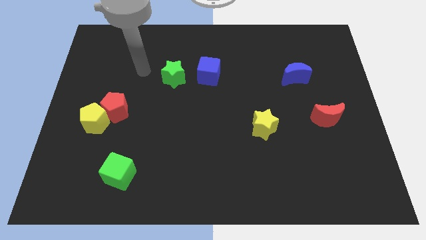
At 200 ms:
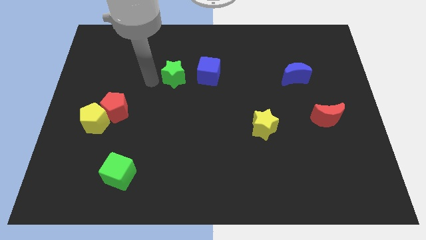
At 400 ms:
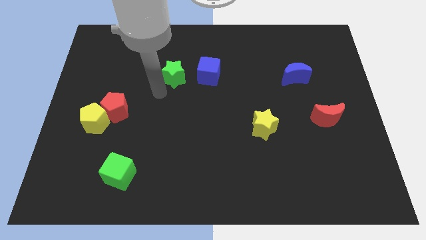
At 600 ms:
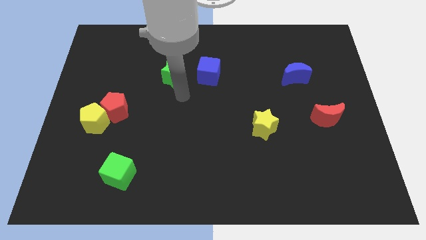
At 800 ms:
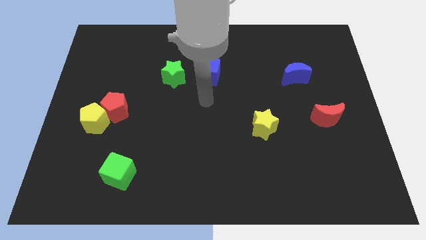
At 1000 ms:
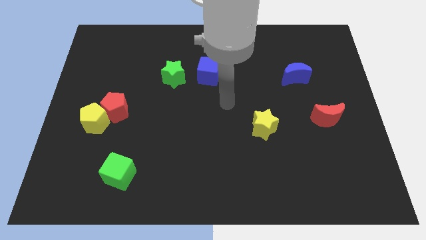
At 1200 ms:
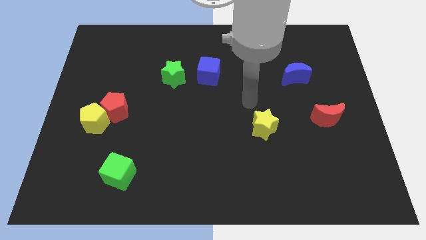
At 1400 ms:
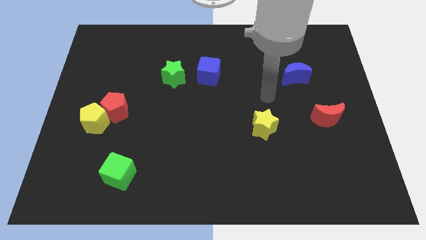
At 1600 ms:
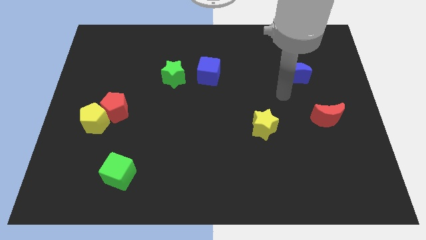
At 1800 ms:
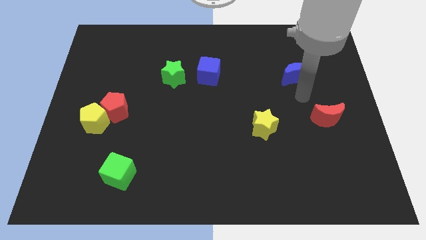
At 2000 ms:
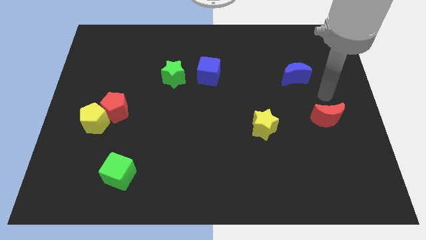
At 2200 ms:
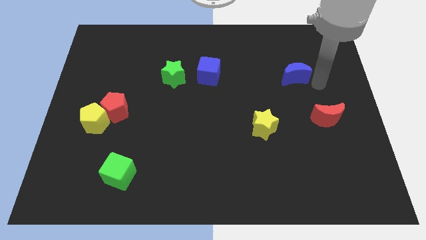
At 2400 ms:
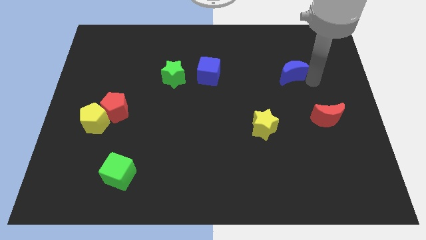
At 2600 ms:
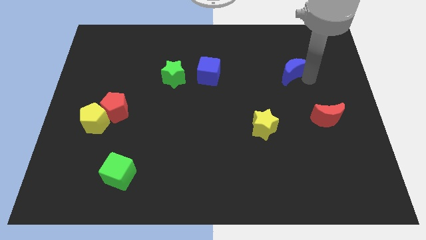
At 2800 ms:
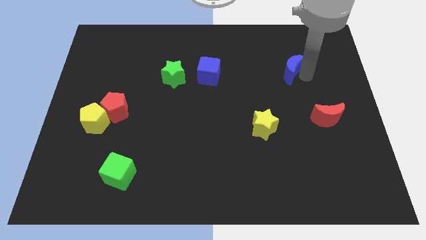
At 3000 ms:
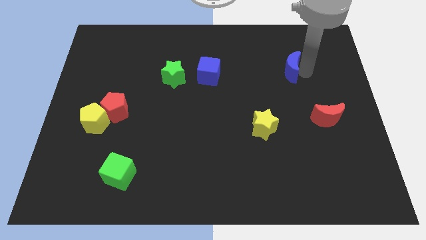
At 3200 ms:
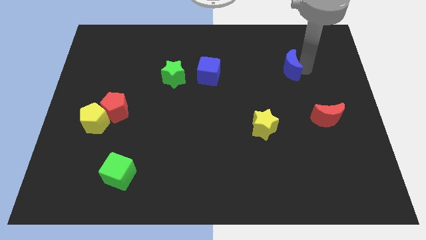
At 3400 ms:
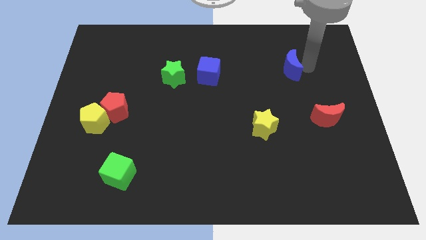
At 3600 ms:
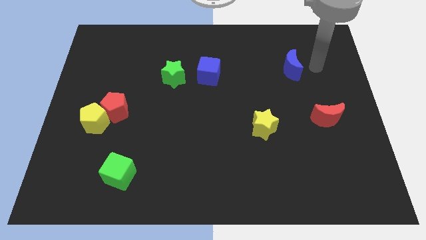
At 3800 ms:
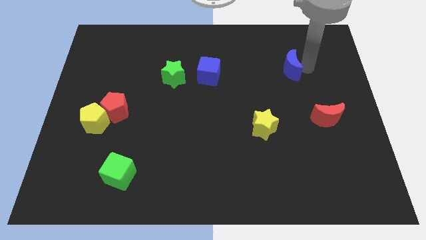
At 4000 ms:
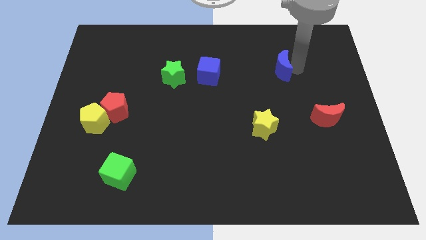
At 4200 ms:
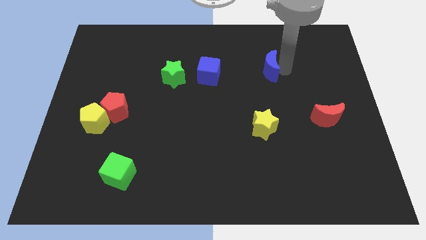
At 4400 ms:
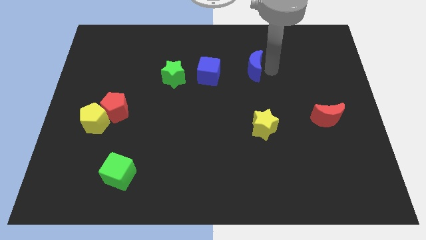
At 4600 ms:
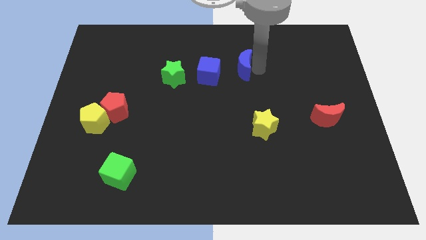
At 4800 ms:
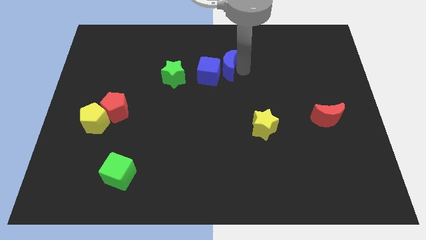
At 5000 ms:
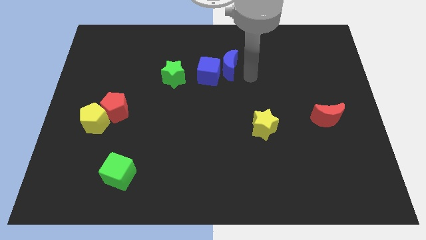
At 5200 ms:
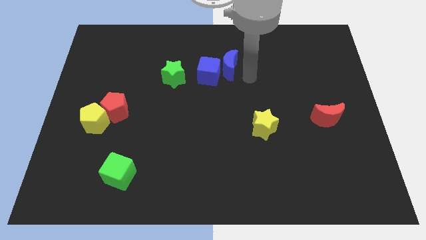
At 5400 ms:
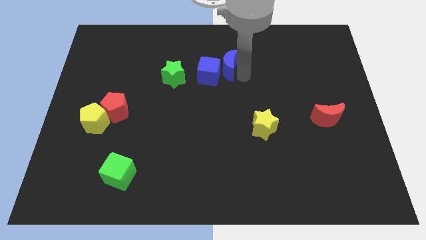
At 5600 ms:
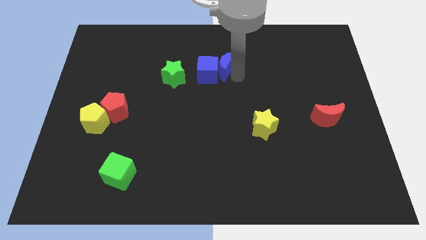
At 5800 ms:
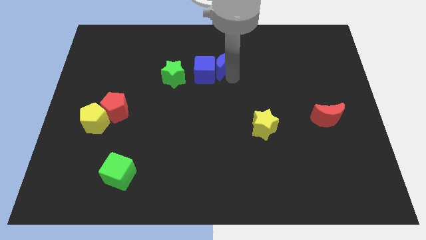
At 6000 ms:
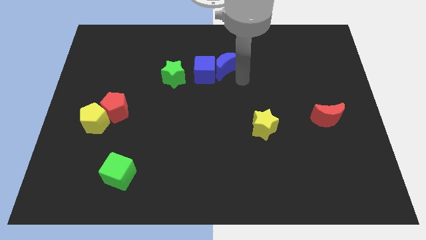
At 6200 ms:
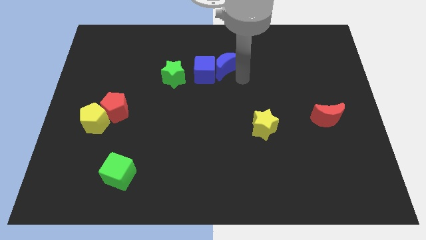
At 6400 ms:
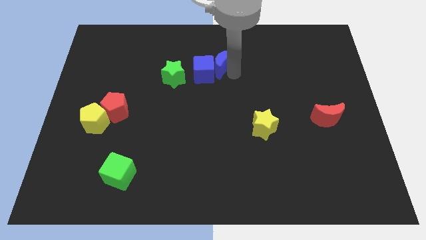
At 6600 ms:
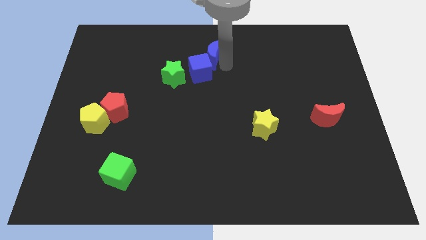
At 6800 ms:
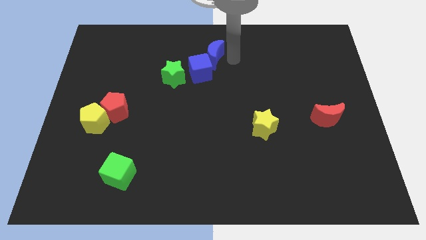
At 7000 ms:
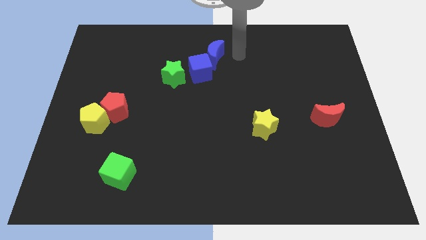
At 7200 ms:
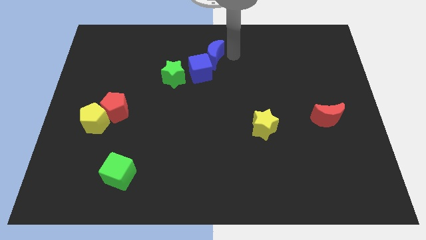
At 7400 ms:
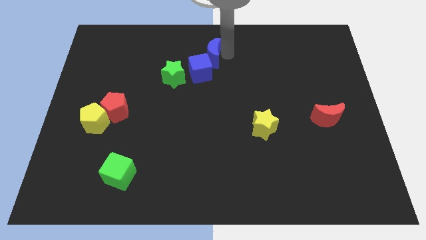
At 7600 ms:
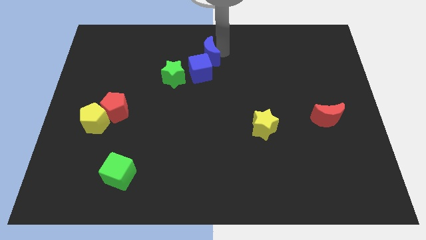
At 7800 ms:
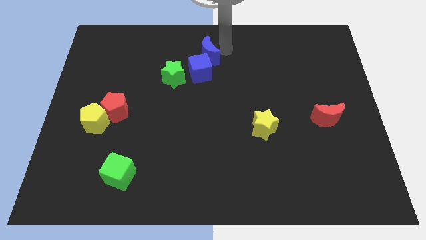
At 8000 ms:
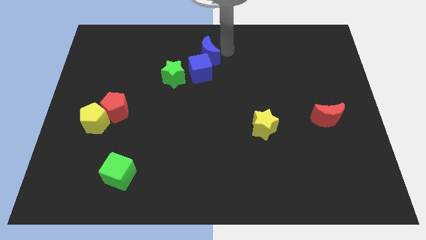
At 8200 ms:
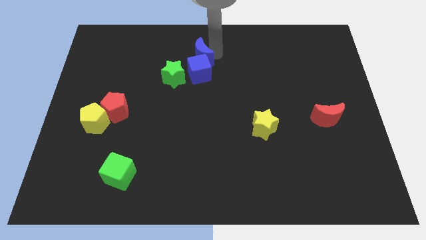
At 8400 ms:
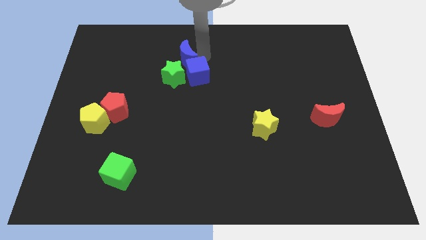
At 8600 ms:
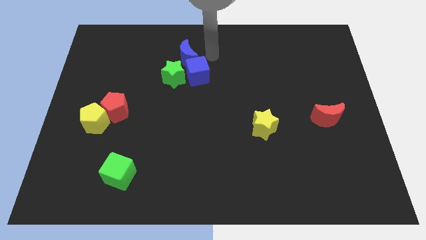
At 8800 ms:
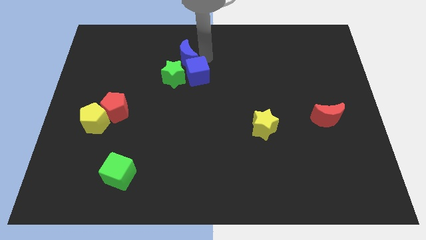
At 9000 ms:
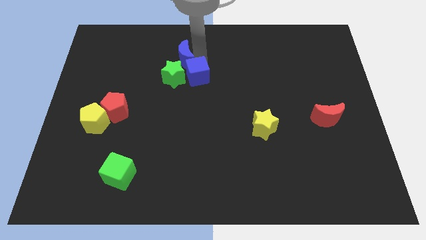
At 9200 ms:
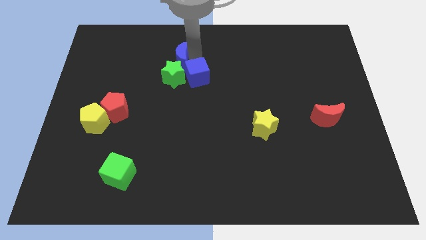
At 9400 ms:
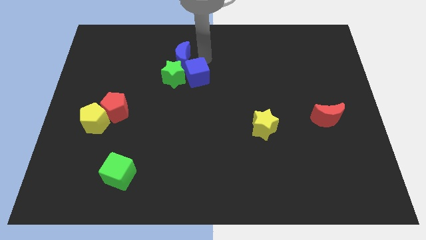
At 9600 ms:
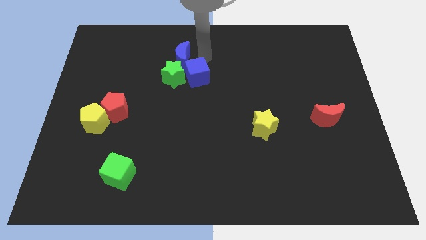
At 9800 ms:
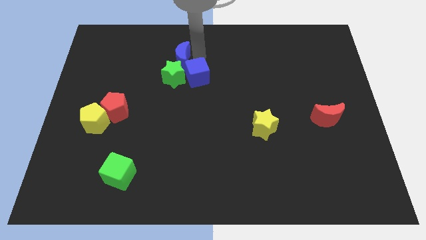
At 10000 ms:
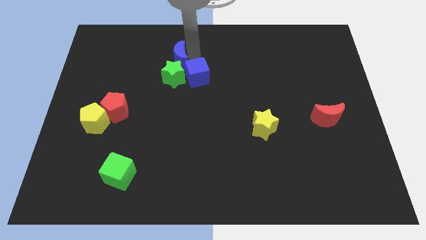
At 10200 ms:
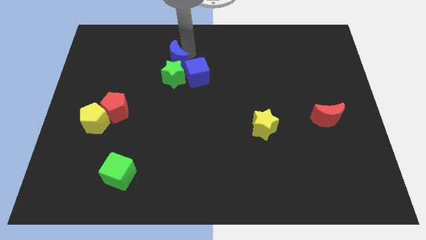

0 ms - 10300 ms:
slide the blue moon to the top left of the green star
